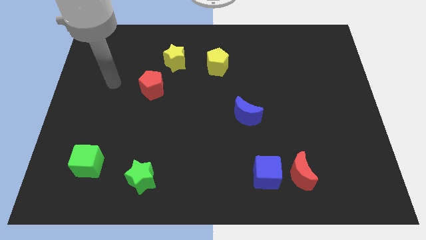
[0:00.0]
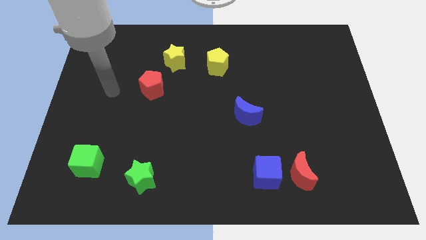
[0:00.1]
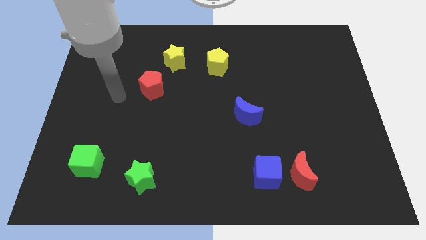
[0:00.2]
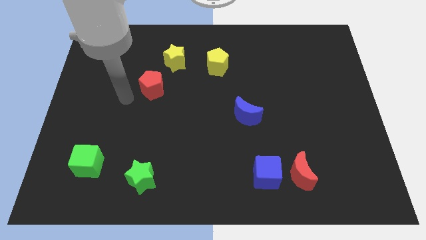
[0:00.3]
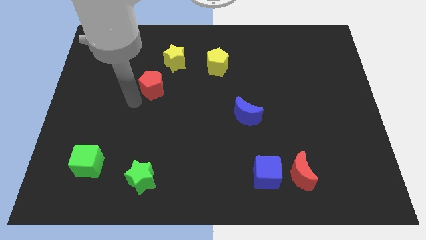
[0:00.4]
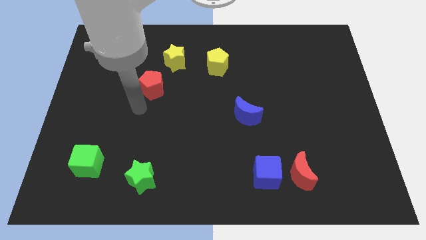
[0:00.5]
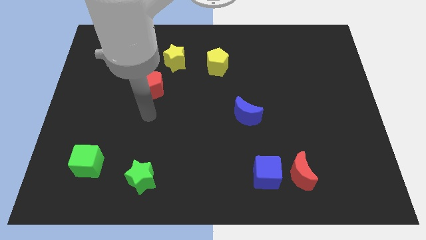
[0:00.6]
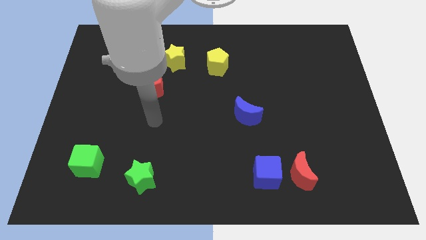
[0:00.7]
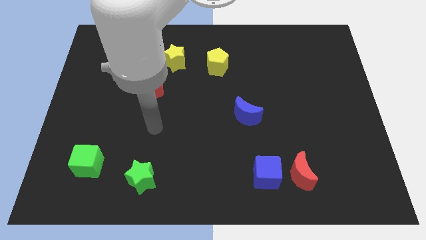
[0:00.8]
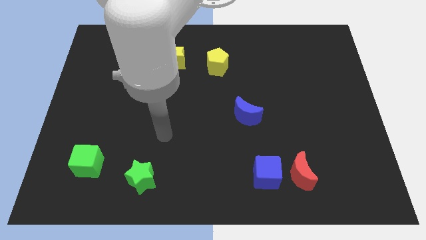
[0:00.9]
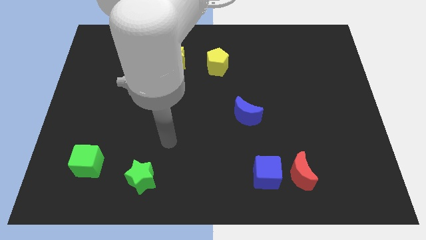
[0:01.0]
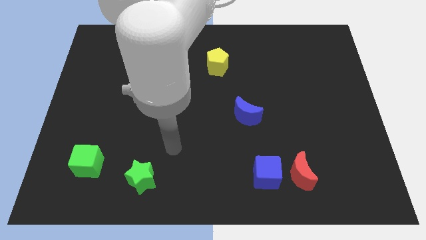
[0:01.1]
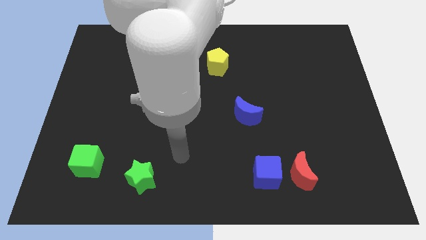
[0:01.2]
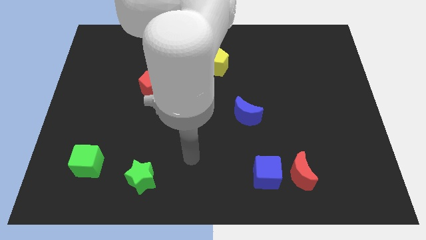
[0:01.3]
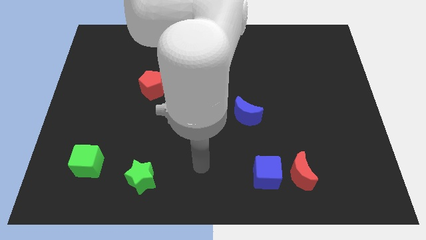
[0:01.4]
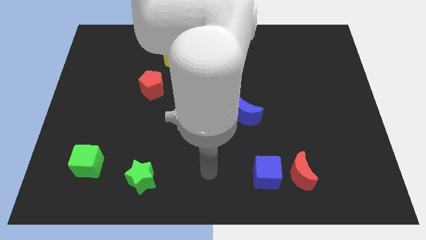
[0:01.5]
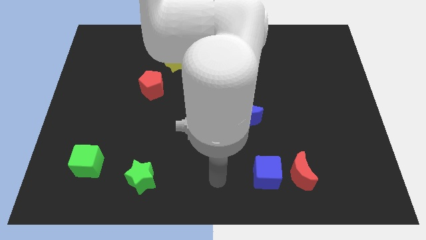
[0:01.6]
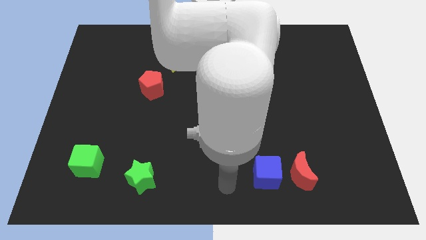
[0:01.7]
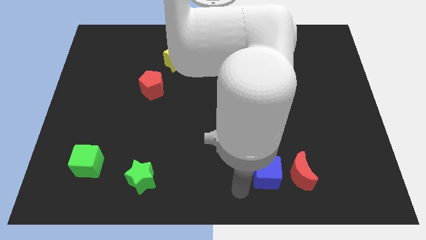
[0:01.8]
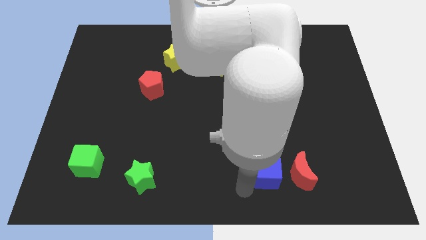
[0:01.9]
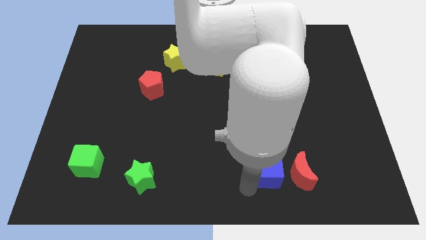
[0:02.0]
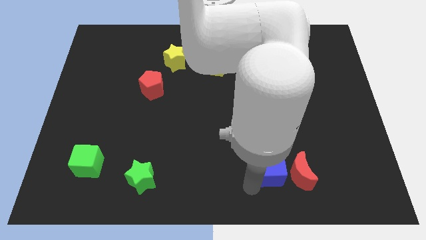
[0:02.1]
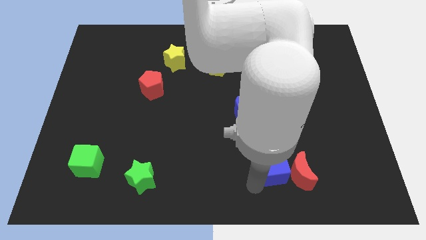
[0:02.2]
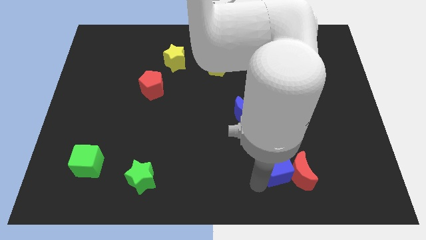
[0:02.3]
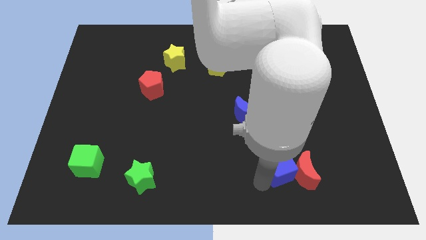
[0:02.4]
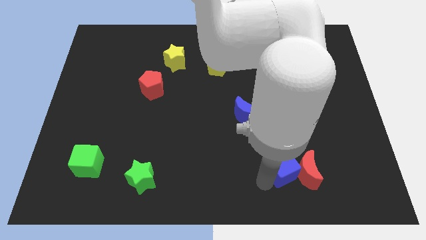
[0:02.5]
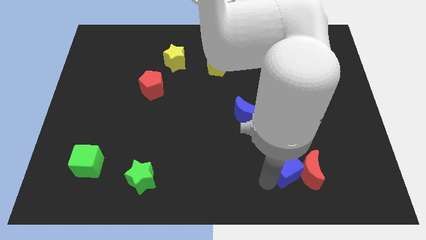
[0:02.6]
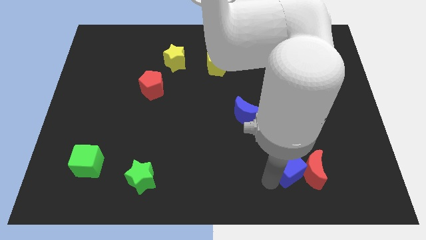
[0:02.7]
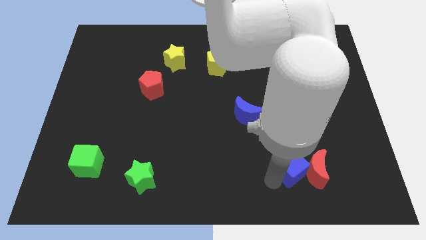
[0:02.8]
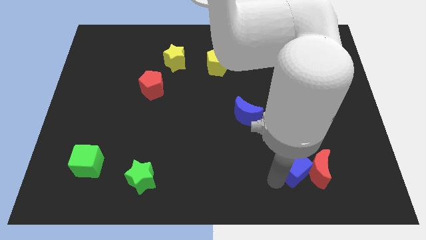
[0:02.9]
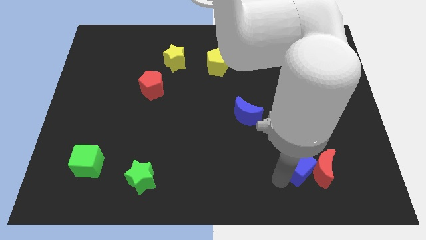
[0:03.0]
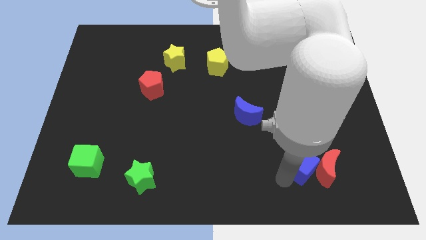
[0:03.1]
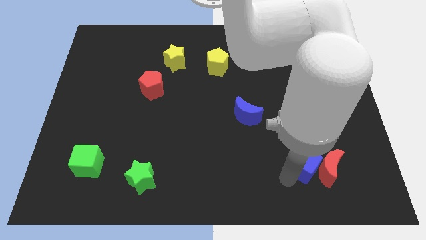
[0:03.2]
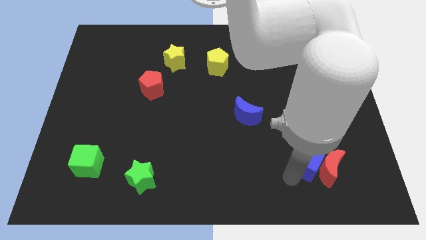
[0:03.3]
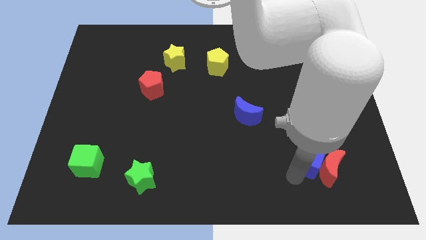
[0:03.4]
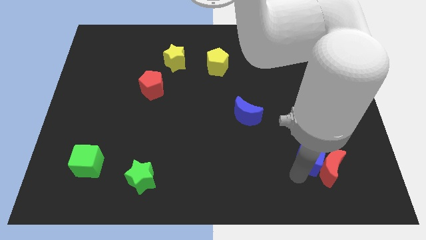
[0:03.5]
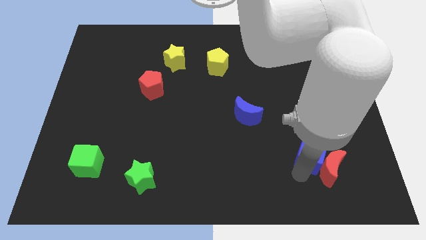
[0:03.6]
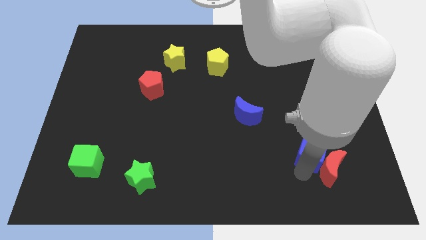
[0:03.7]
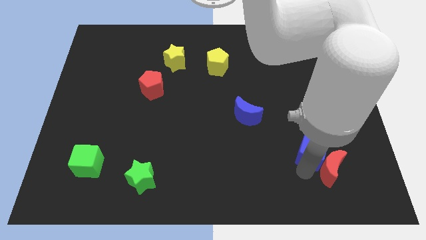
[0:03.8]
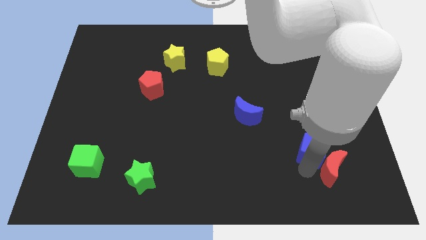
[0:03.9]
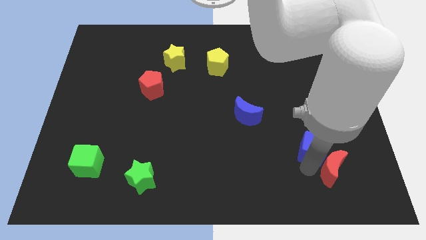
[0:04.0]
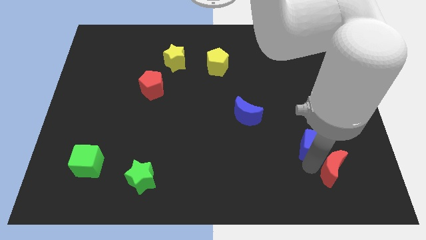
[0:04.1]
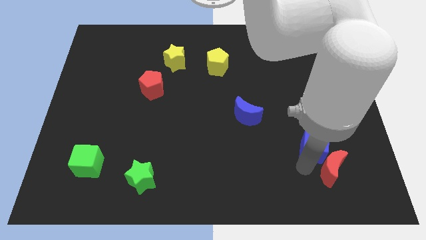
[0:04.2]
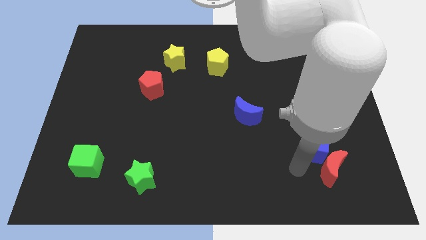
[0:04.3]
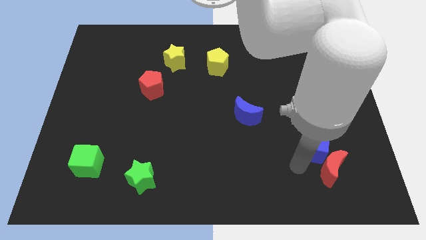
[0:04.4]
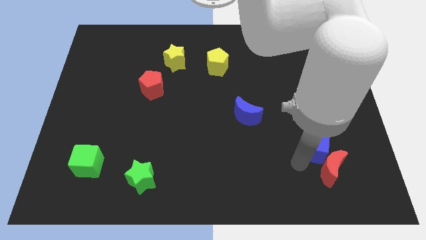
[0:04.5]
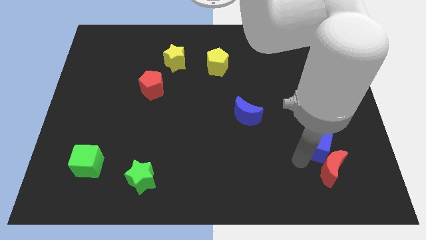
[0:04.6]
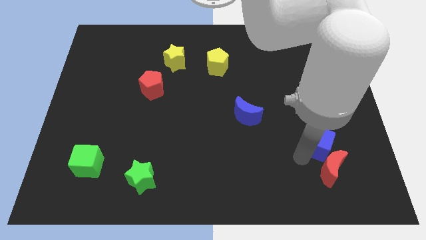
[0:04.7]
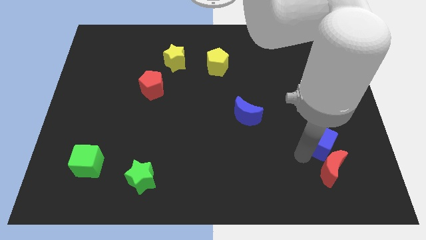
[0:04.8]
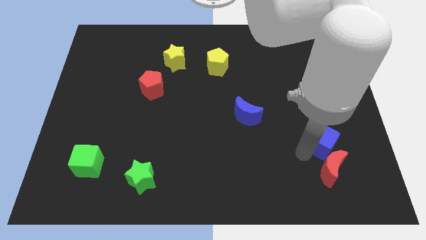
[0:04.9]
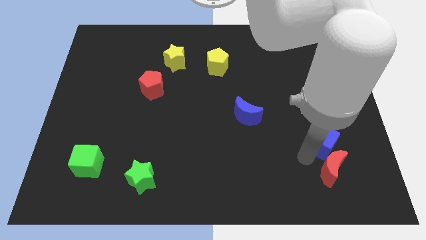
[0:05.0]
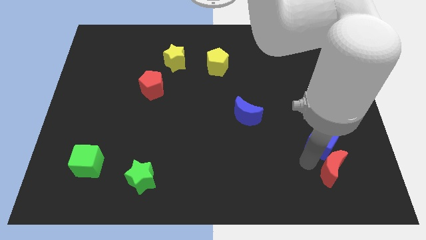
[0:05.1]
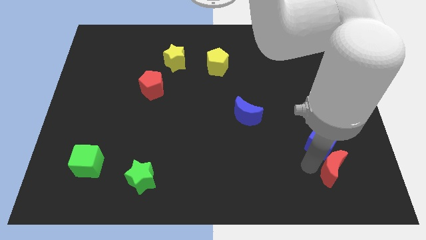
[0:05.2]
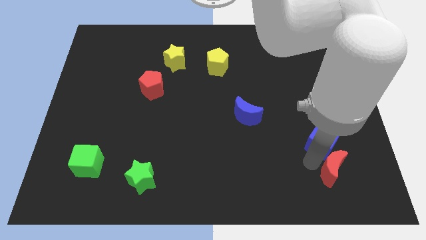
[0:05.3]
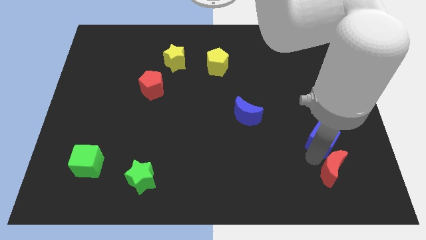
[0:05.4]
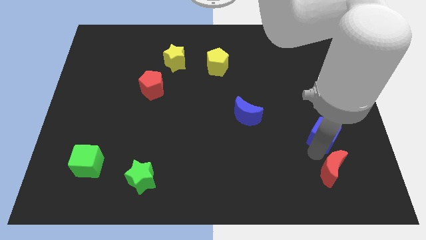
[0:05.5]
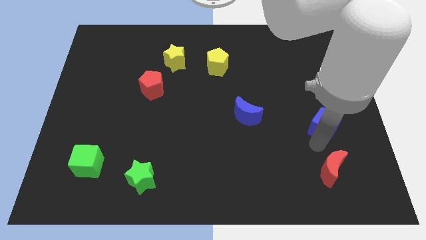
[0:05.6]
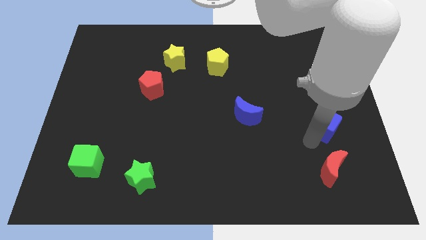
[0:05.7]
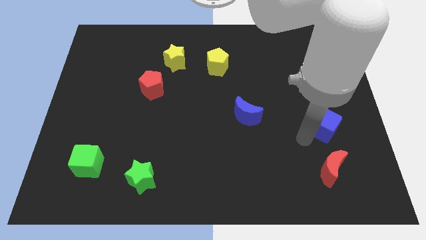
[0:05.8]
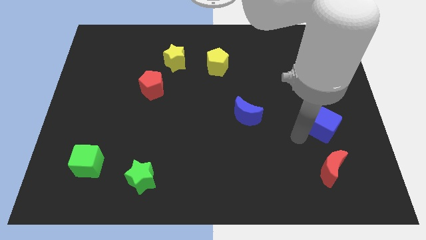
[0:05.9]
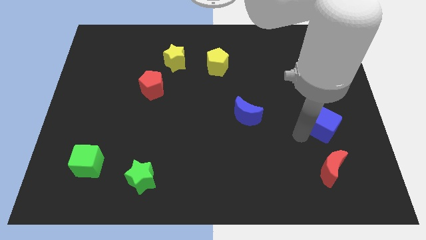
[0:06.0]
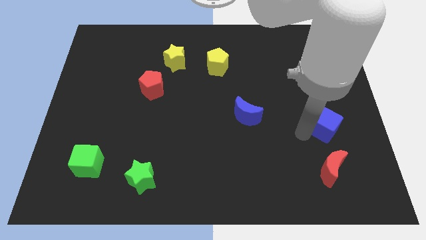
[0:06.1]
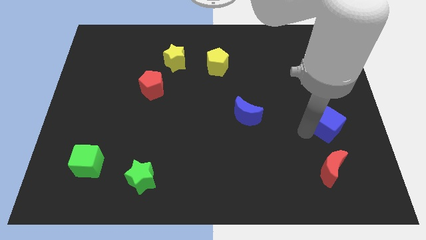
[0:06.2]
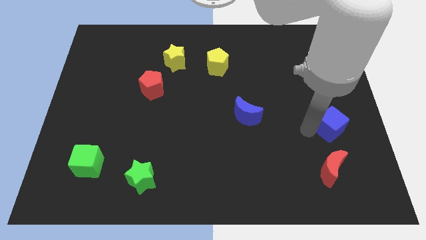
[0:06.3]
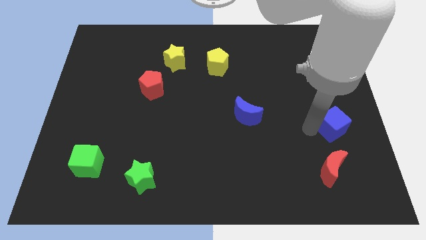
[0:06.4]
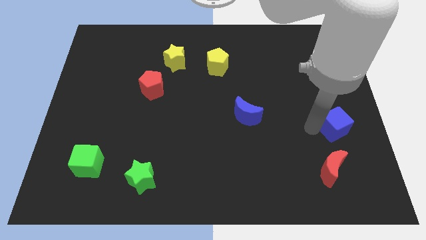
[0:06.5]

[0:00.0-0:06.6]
slide the blue cube to the right side
